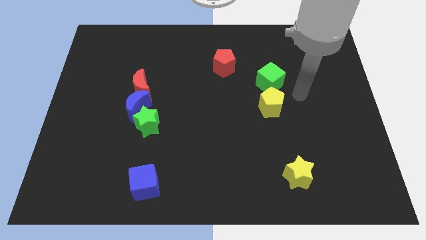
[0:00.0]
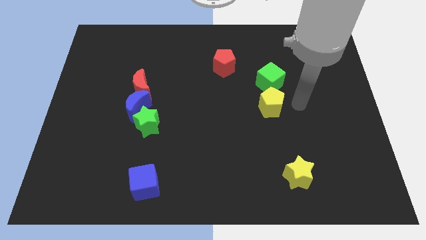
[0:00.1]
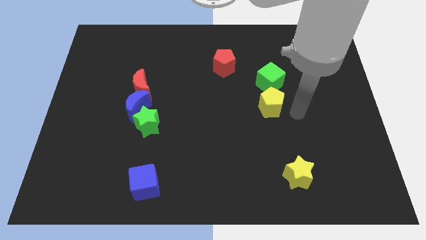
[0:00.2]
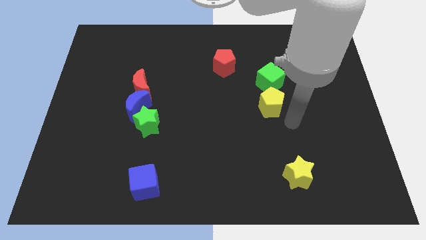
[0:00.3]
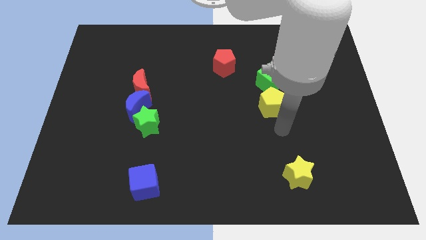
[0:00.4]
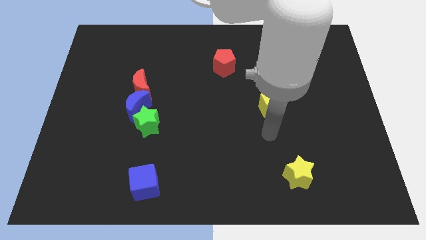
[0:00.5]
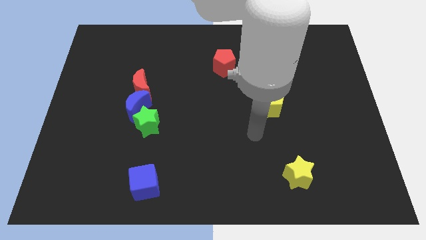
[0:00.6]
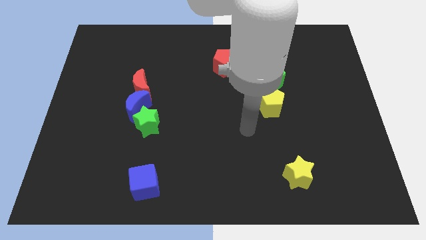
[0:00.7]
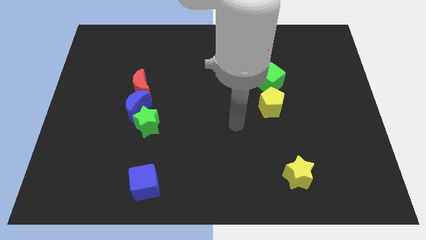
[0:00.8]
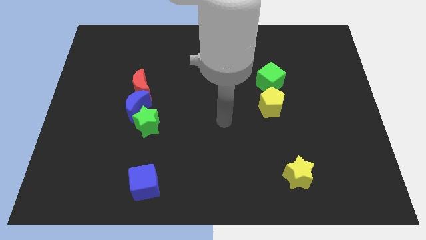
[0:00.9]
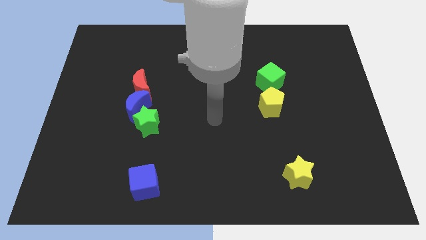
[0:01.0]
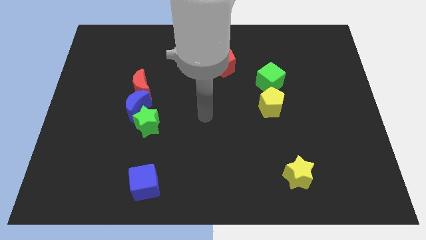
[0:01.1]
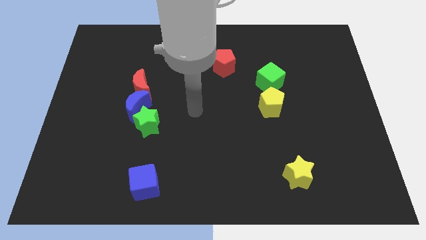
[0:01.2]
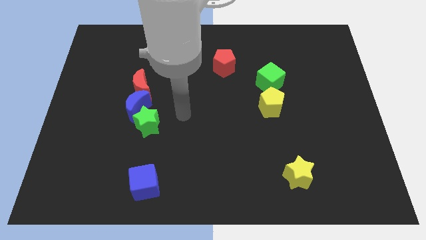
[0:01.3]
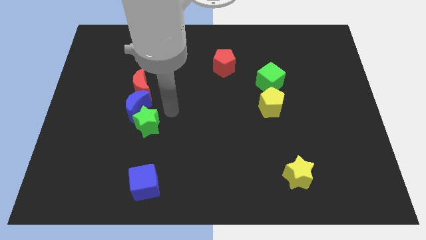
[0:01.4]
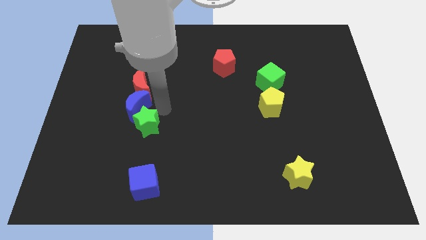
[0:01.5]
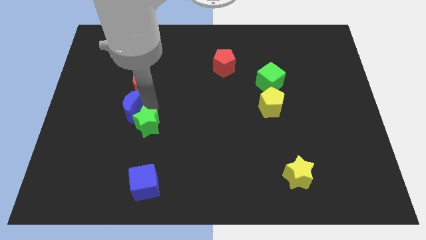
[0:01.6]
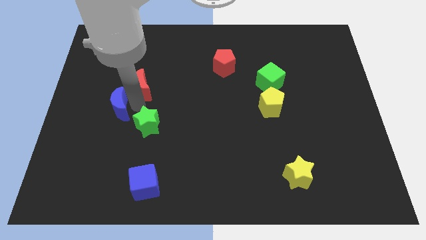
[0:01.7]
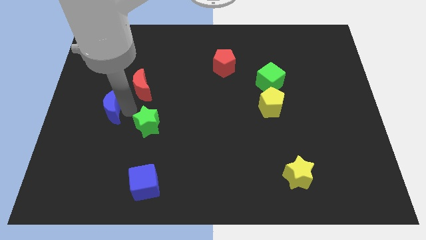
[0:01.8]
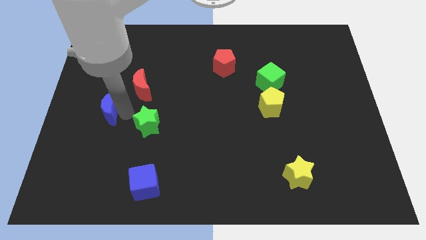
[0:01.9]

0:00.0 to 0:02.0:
separate the green star from the blue moon

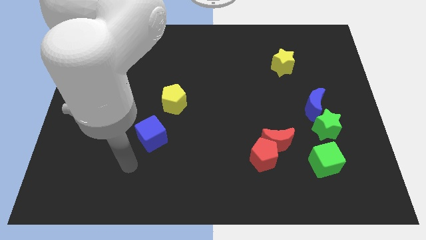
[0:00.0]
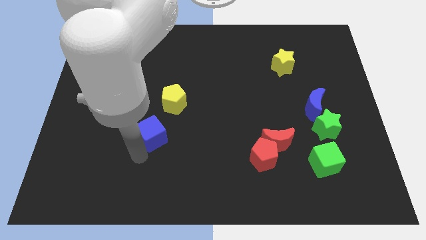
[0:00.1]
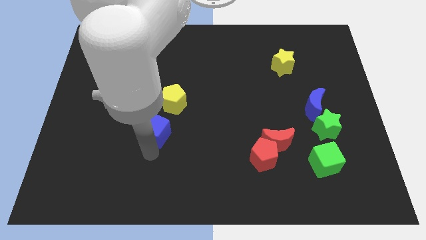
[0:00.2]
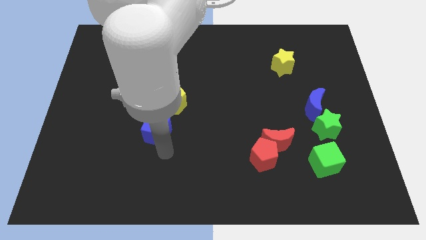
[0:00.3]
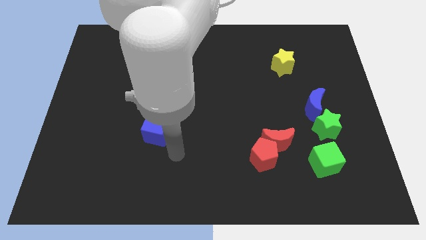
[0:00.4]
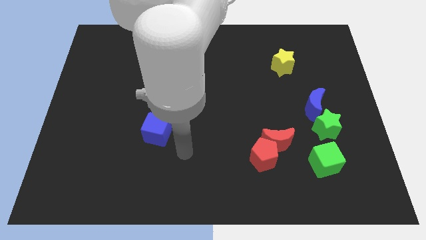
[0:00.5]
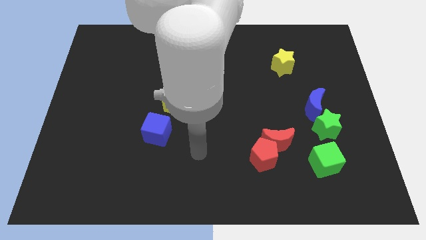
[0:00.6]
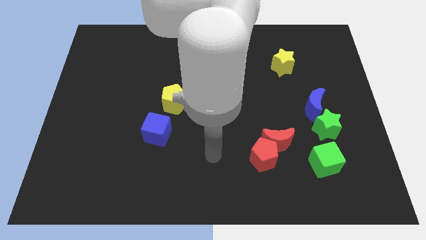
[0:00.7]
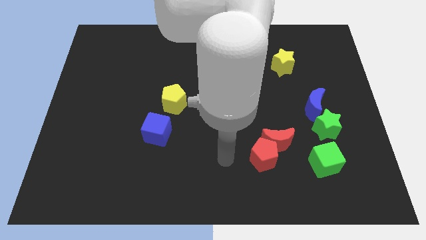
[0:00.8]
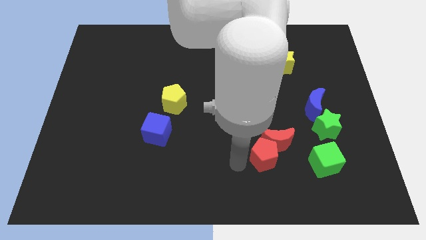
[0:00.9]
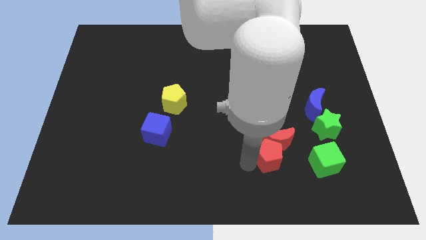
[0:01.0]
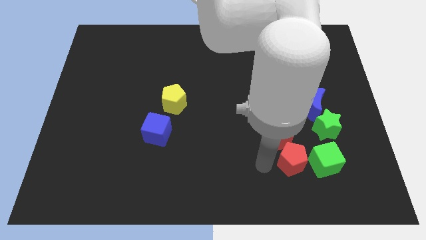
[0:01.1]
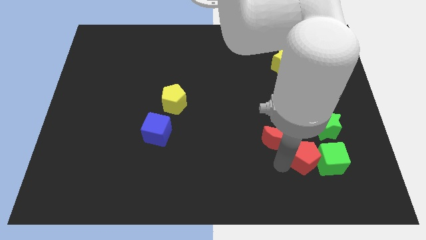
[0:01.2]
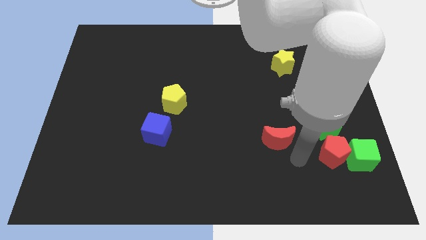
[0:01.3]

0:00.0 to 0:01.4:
pull the red moon apart from the red pentagon

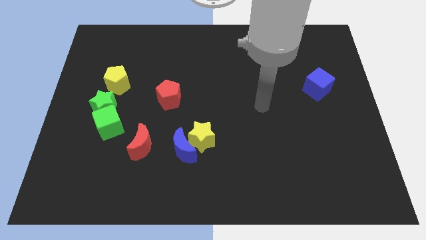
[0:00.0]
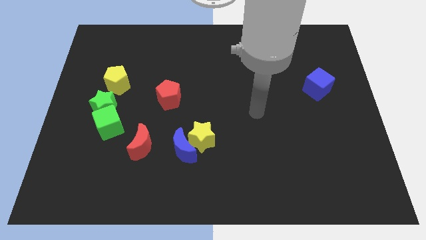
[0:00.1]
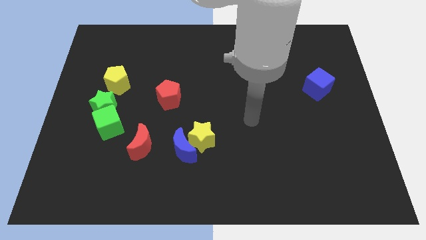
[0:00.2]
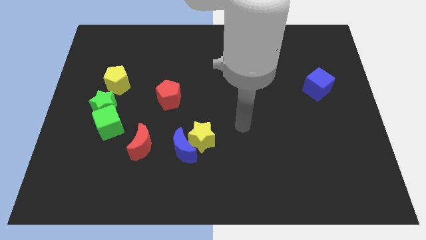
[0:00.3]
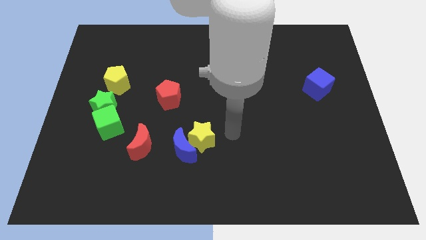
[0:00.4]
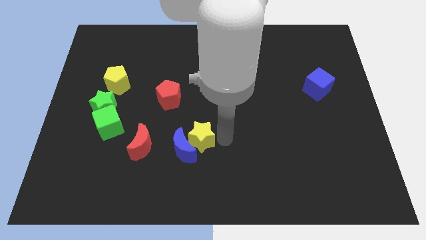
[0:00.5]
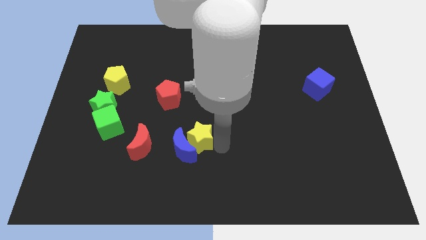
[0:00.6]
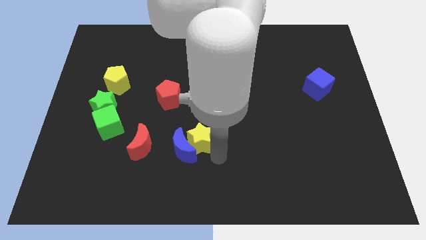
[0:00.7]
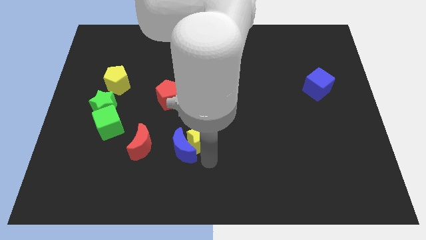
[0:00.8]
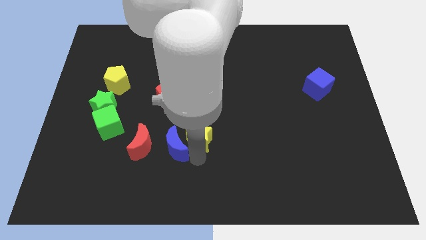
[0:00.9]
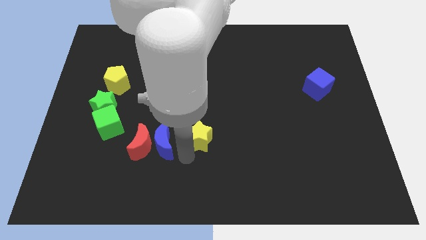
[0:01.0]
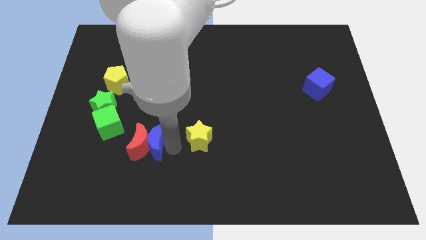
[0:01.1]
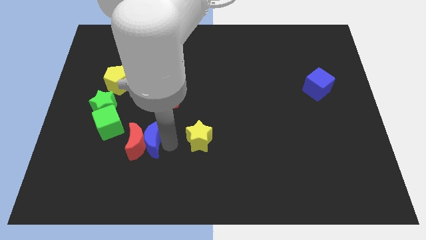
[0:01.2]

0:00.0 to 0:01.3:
pull the yellow star apart from the blue moon

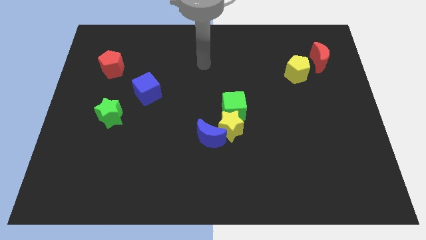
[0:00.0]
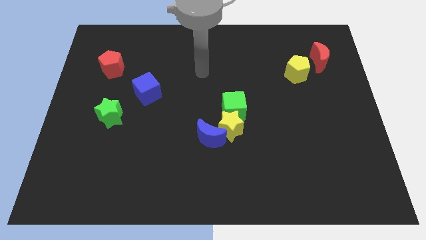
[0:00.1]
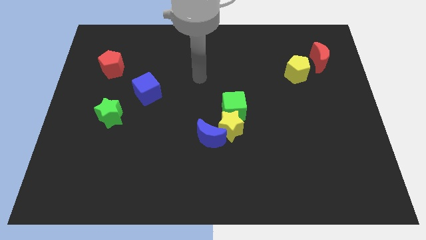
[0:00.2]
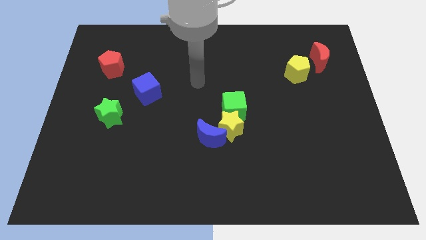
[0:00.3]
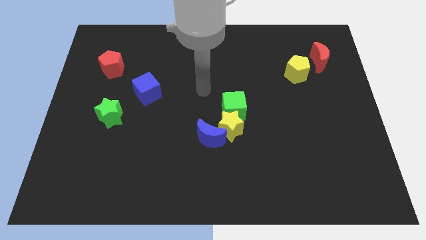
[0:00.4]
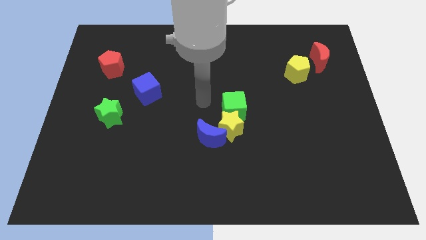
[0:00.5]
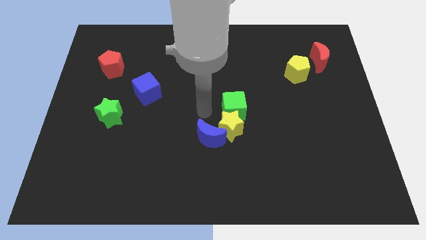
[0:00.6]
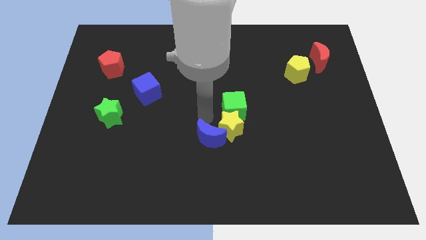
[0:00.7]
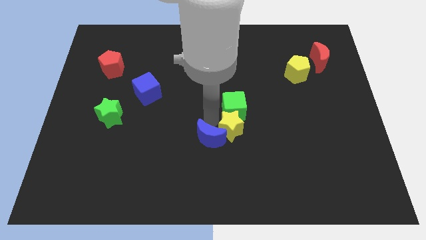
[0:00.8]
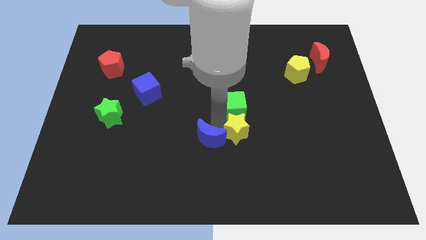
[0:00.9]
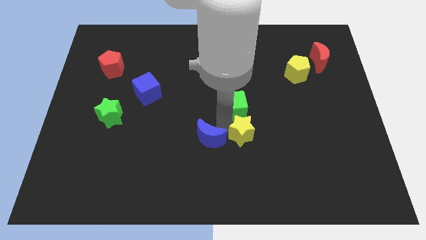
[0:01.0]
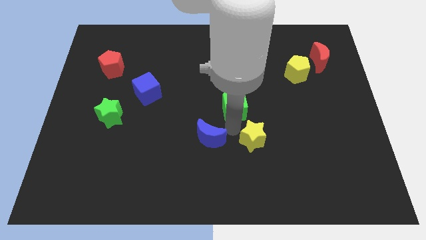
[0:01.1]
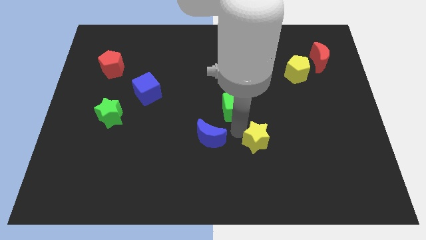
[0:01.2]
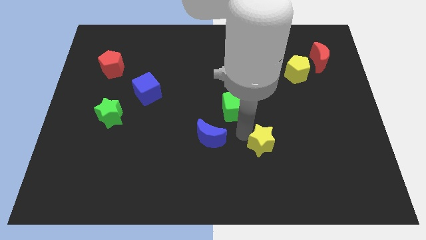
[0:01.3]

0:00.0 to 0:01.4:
move the yellow star away from the green cube and blue moon

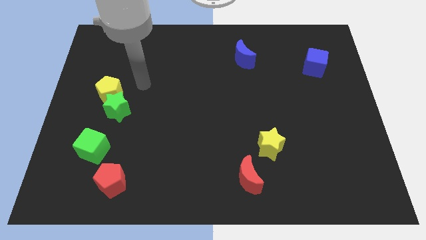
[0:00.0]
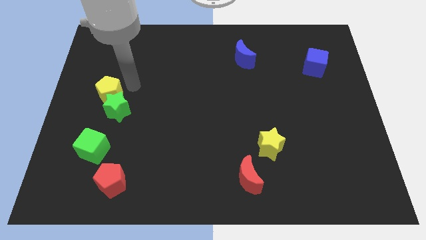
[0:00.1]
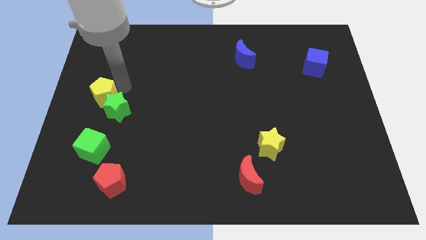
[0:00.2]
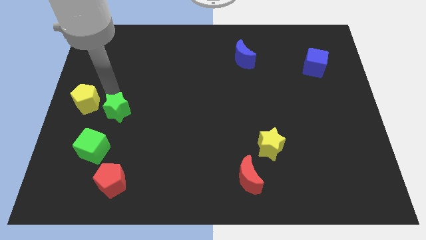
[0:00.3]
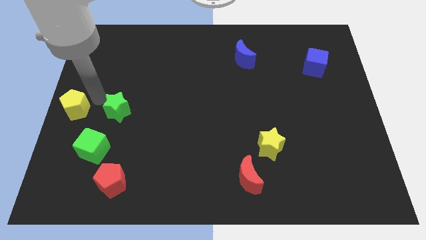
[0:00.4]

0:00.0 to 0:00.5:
move the green star away from the yellow pentagon

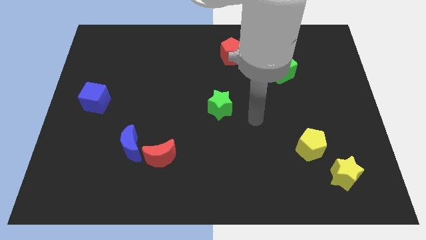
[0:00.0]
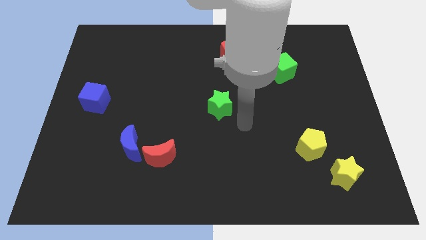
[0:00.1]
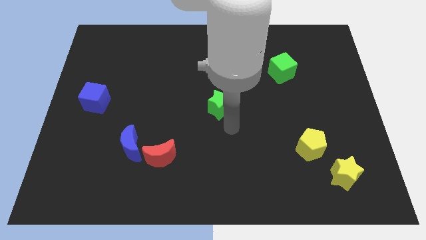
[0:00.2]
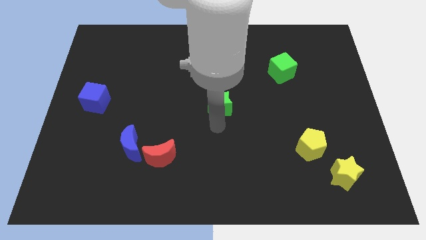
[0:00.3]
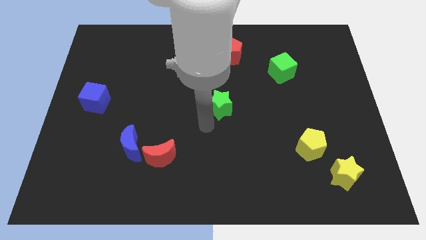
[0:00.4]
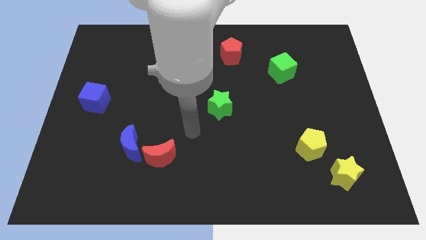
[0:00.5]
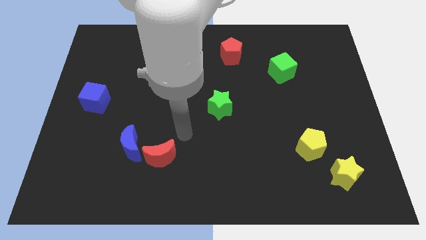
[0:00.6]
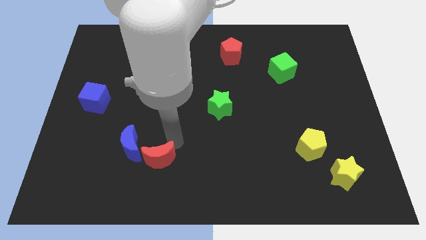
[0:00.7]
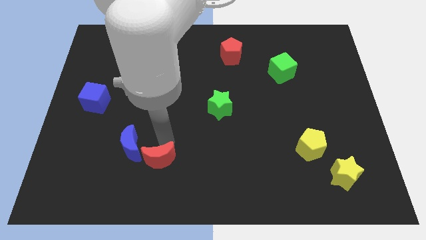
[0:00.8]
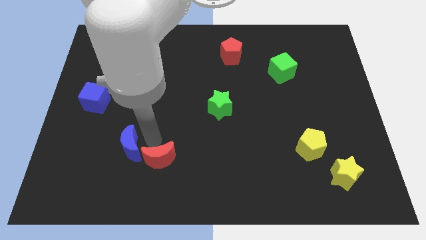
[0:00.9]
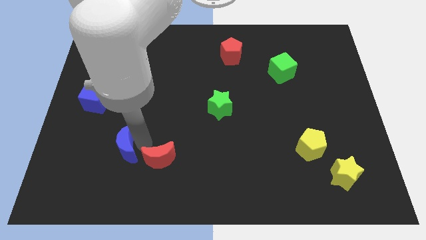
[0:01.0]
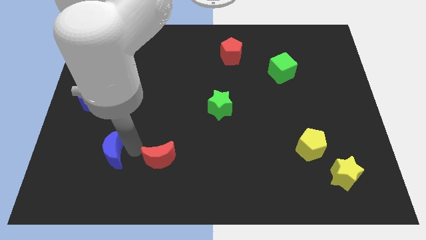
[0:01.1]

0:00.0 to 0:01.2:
move the red moon away from the blue moon

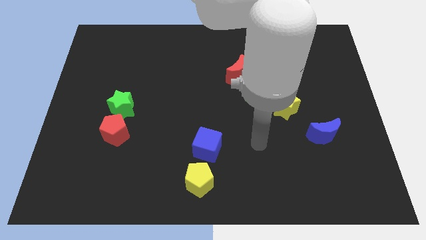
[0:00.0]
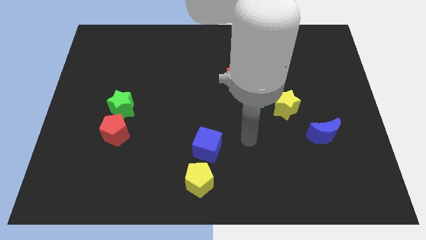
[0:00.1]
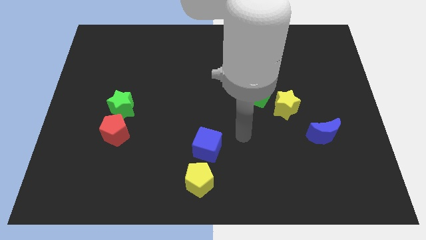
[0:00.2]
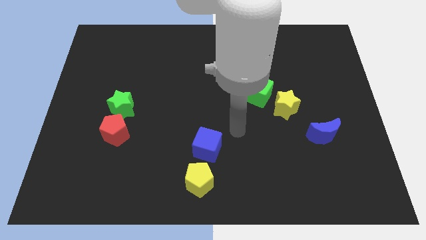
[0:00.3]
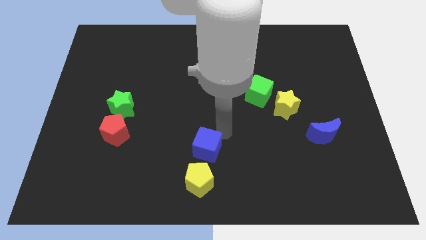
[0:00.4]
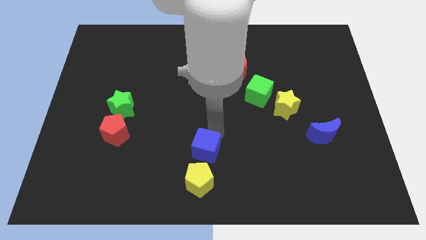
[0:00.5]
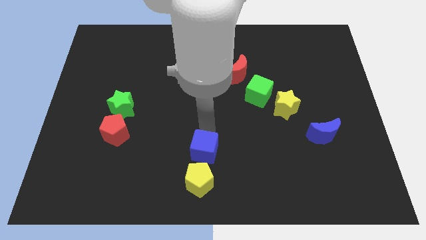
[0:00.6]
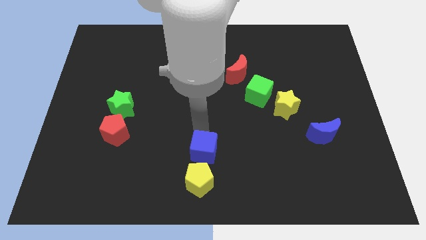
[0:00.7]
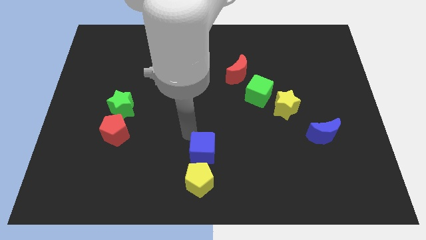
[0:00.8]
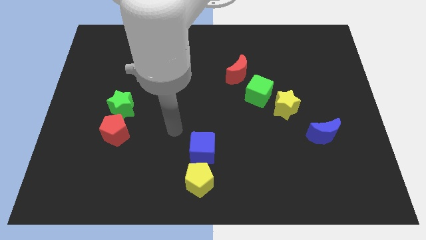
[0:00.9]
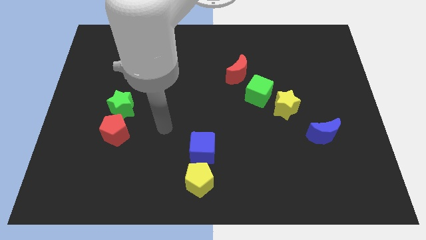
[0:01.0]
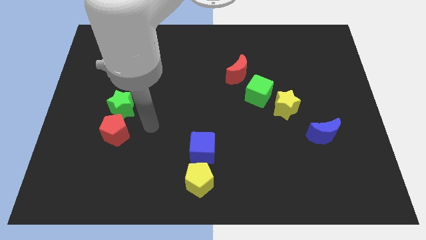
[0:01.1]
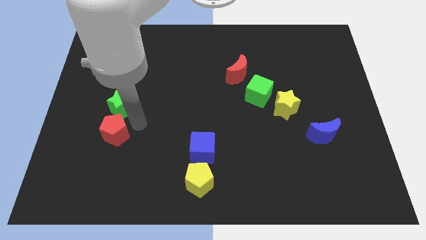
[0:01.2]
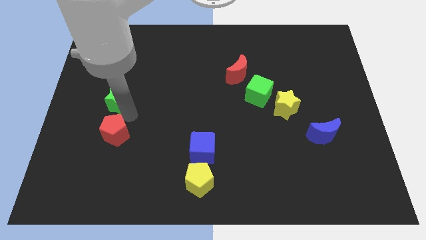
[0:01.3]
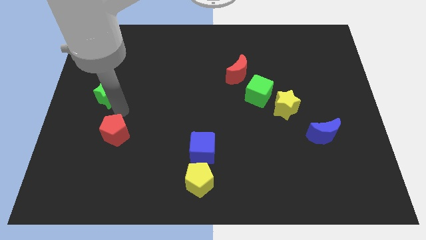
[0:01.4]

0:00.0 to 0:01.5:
separate the red pentagon from the green star
